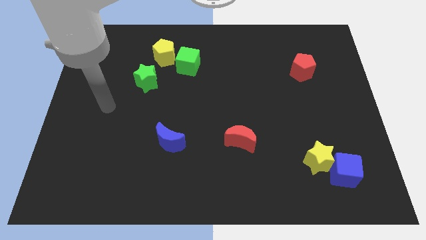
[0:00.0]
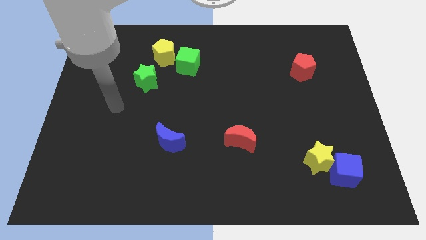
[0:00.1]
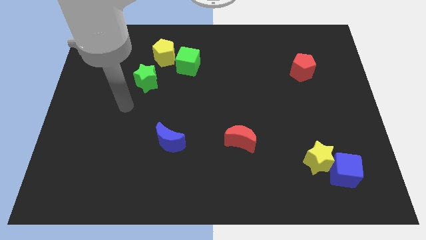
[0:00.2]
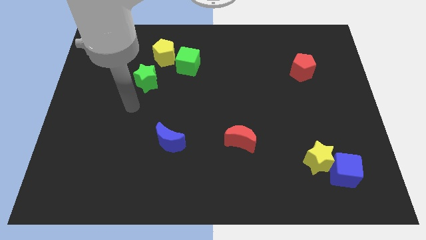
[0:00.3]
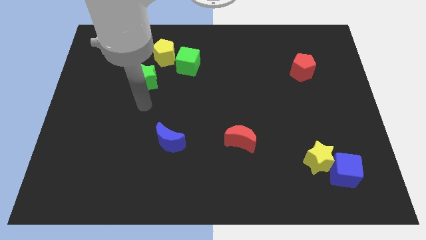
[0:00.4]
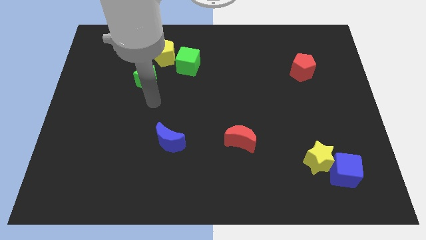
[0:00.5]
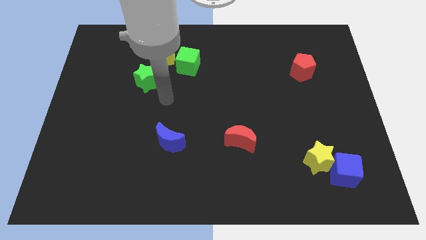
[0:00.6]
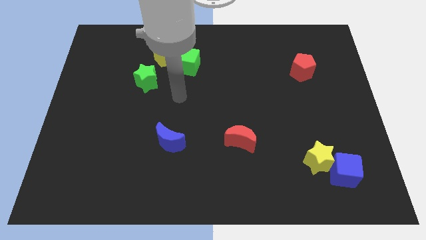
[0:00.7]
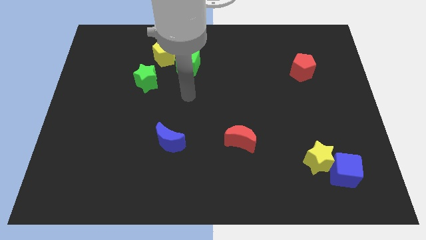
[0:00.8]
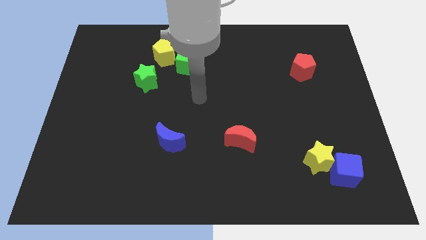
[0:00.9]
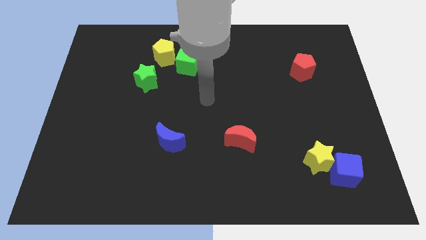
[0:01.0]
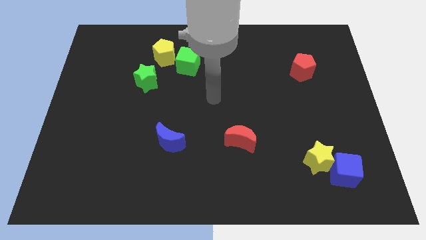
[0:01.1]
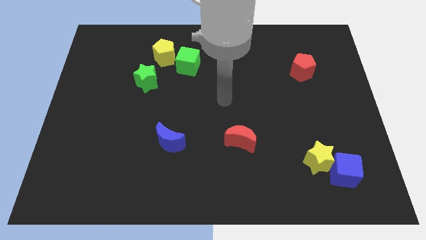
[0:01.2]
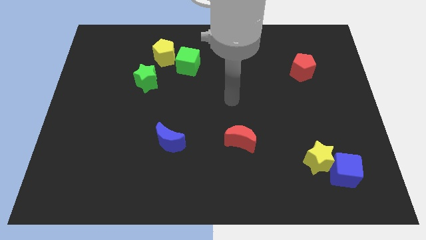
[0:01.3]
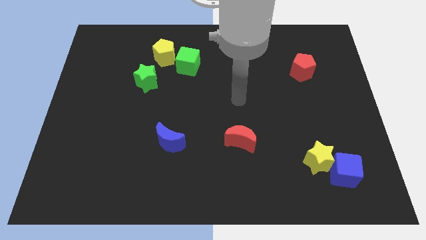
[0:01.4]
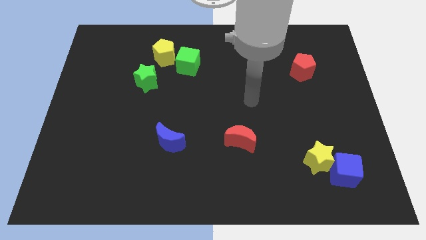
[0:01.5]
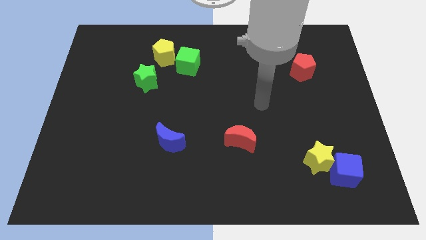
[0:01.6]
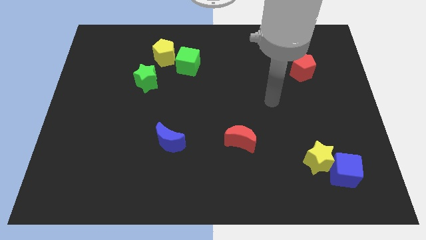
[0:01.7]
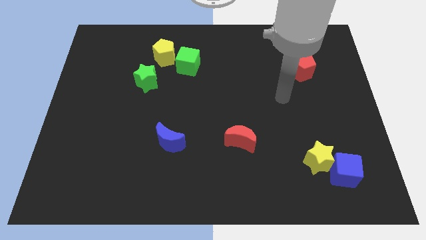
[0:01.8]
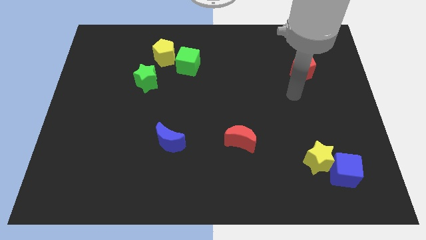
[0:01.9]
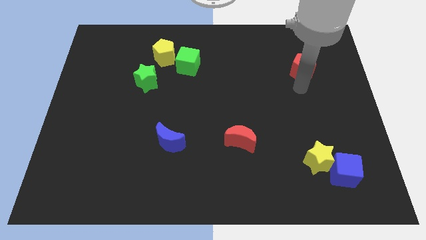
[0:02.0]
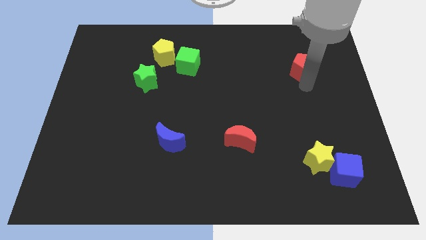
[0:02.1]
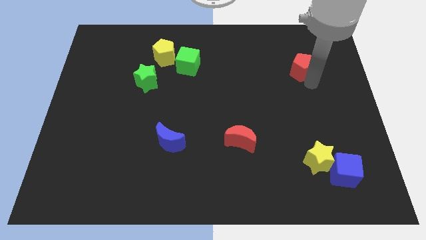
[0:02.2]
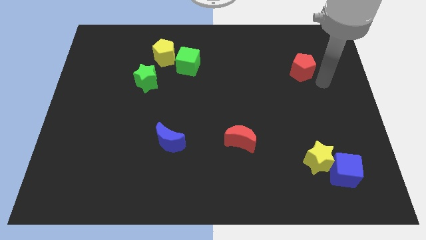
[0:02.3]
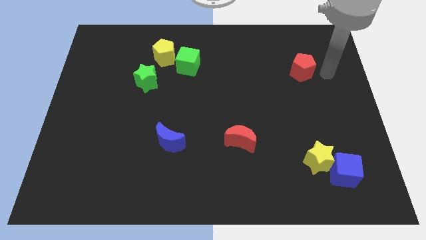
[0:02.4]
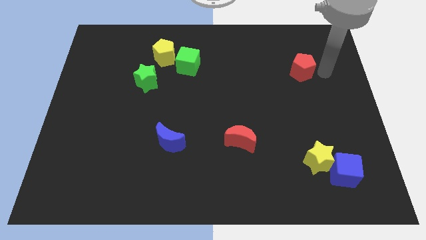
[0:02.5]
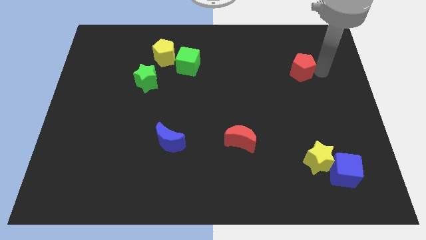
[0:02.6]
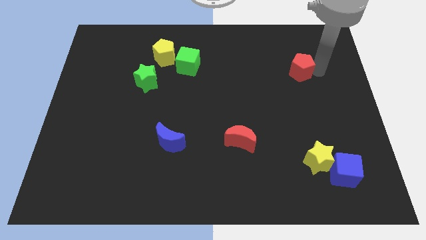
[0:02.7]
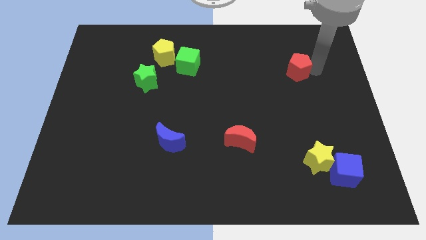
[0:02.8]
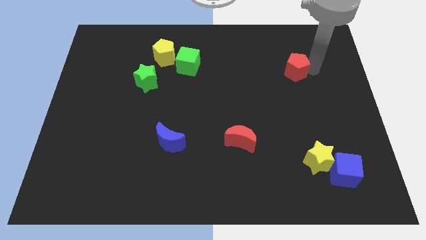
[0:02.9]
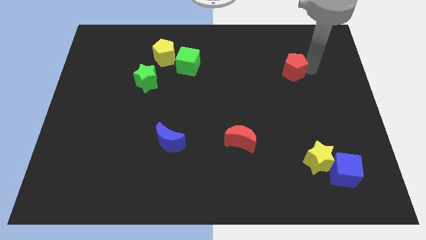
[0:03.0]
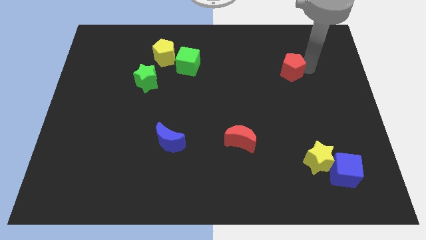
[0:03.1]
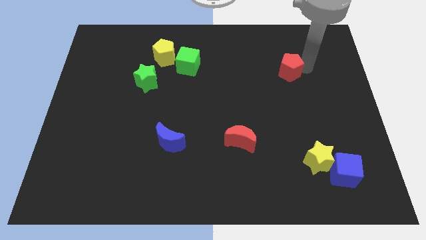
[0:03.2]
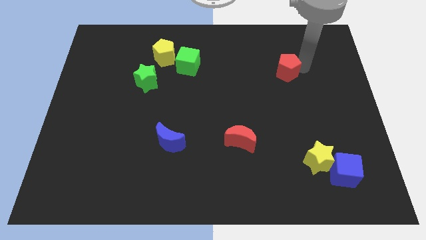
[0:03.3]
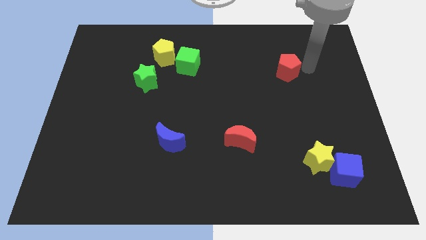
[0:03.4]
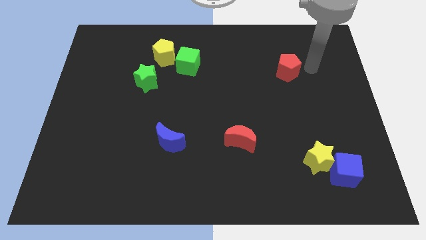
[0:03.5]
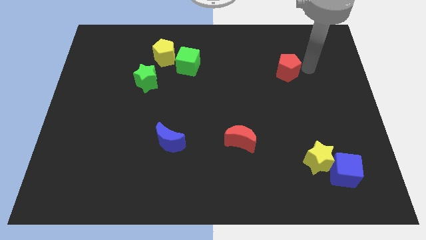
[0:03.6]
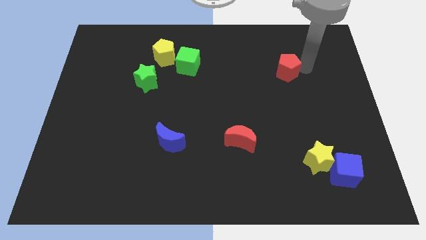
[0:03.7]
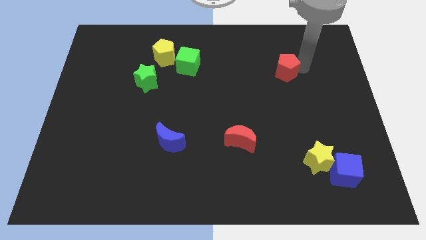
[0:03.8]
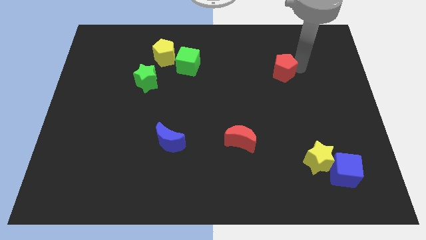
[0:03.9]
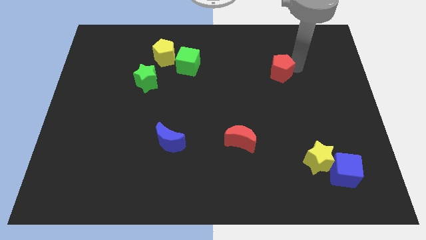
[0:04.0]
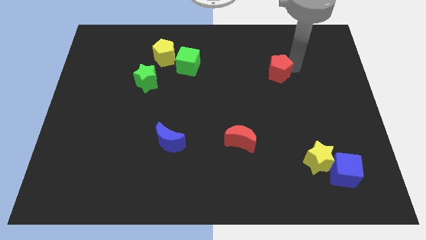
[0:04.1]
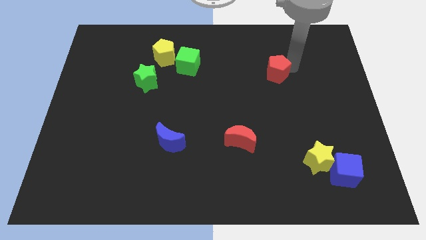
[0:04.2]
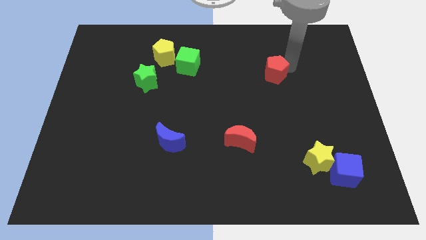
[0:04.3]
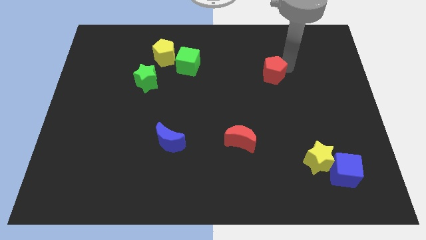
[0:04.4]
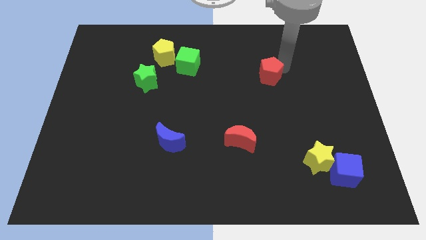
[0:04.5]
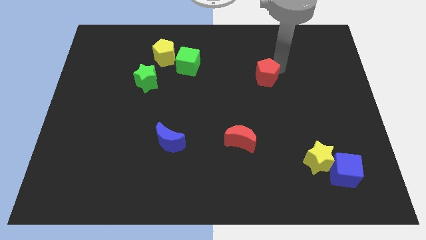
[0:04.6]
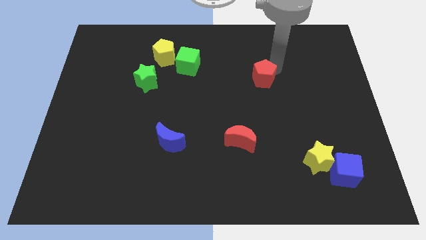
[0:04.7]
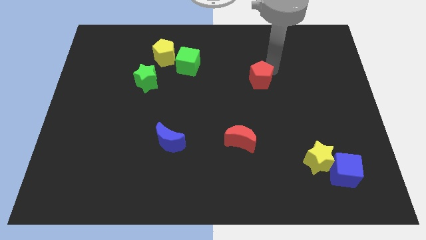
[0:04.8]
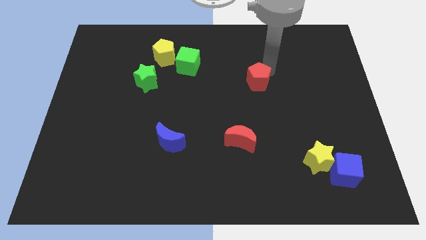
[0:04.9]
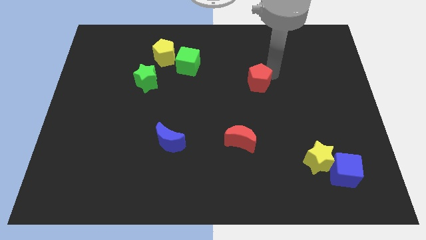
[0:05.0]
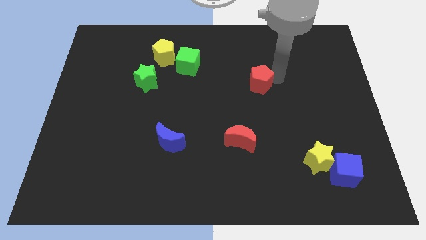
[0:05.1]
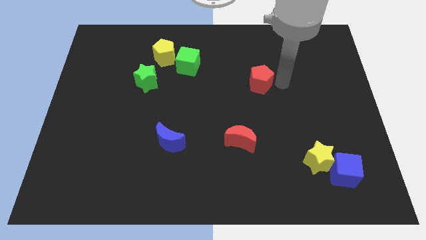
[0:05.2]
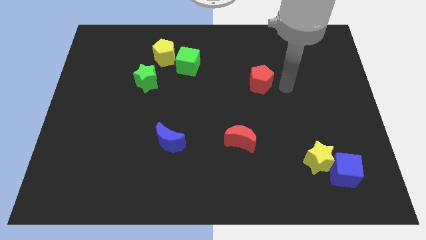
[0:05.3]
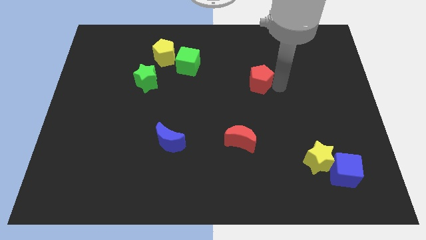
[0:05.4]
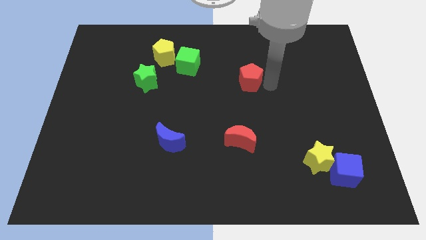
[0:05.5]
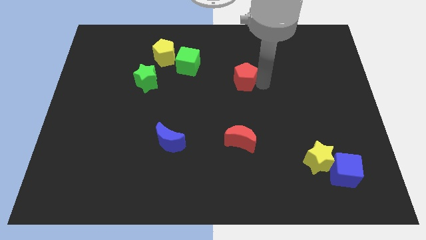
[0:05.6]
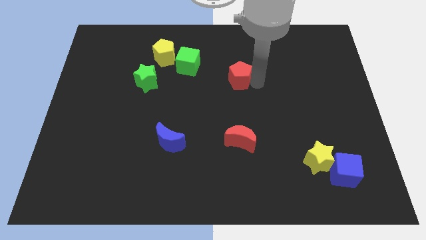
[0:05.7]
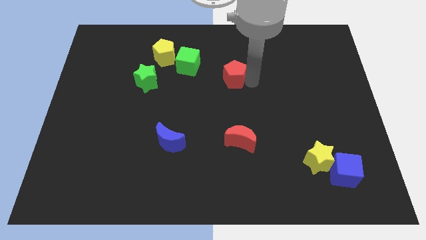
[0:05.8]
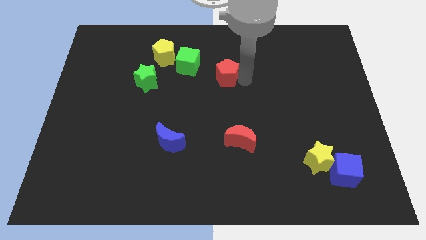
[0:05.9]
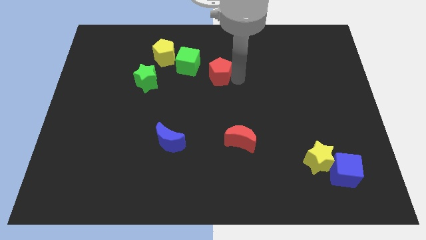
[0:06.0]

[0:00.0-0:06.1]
move the red pentagon left

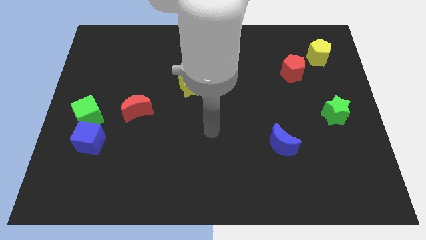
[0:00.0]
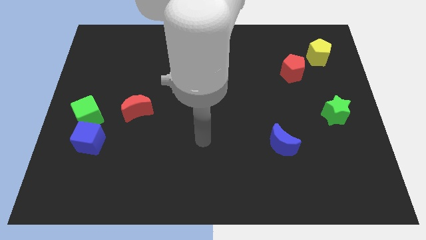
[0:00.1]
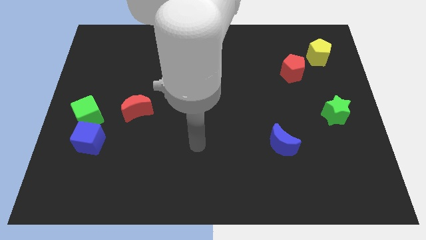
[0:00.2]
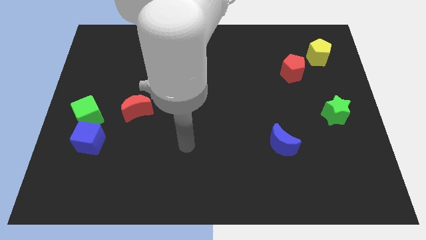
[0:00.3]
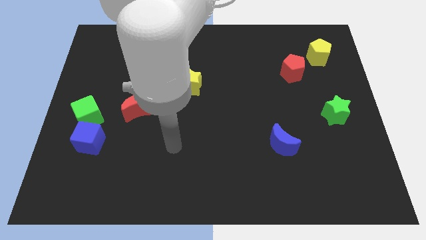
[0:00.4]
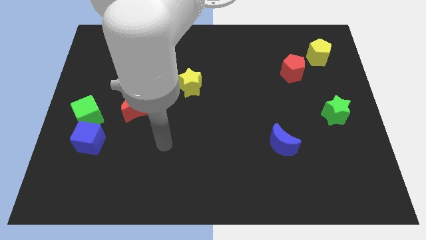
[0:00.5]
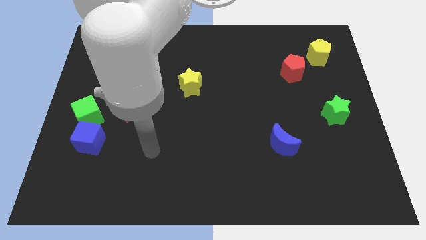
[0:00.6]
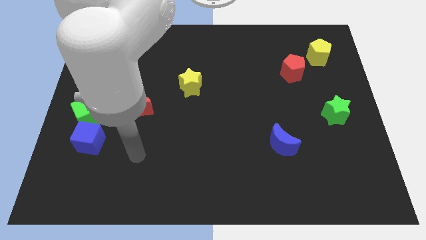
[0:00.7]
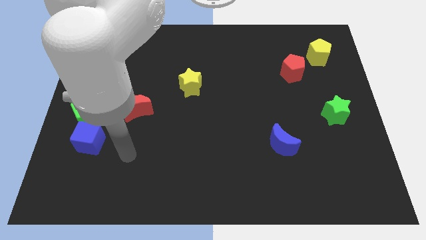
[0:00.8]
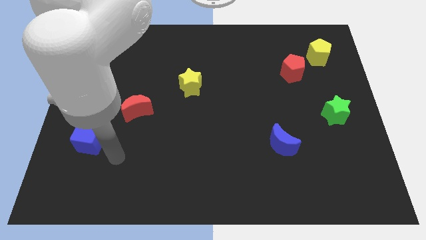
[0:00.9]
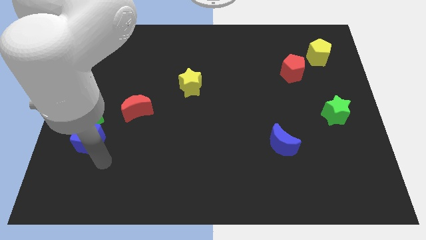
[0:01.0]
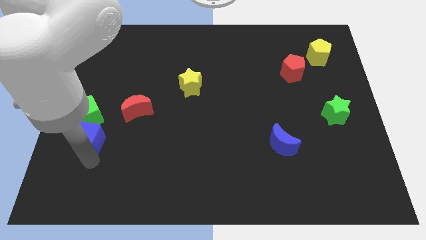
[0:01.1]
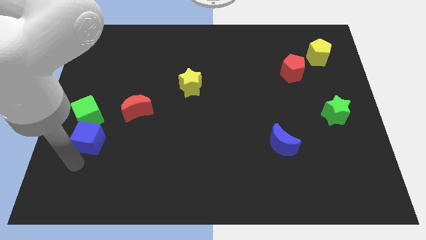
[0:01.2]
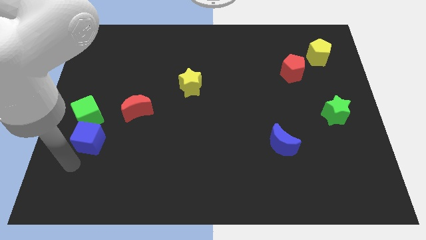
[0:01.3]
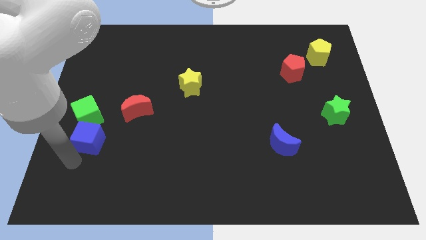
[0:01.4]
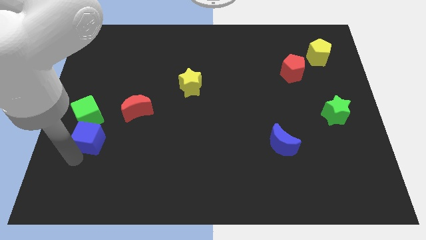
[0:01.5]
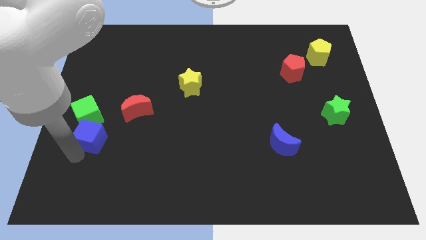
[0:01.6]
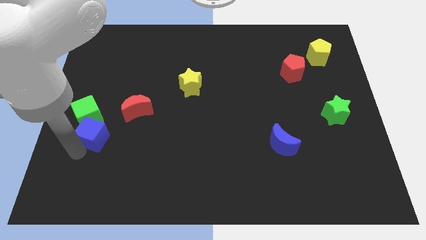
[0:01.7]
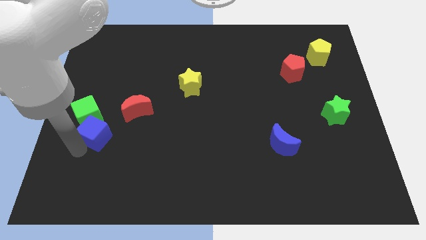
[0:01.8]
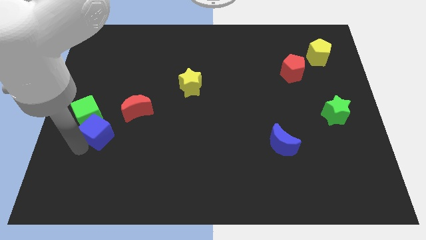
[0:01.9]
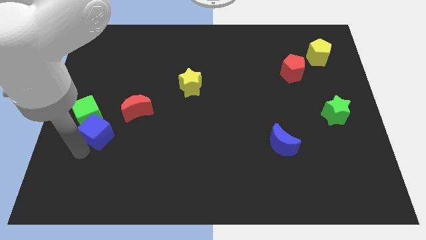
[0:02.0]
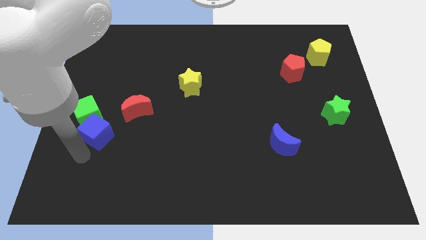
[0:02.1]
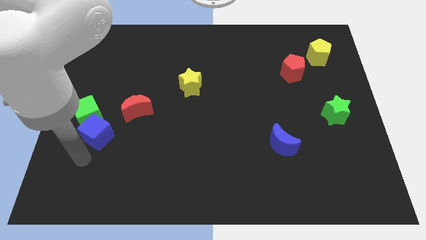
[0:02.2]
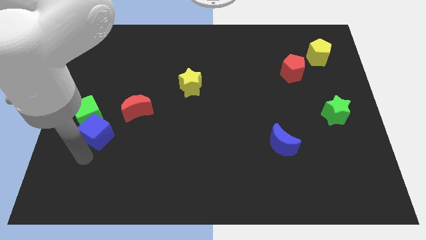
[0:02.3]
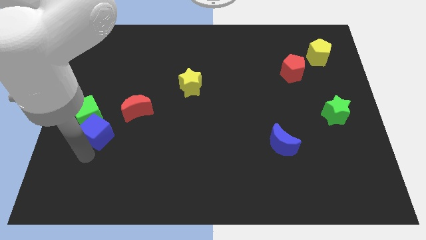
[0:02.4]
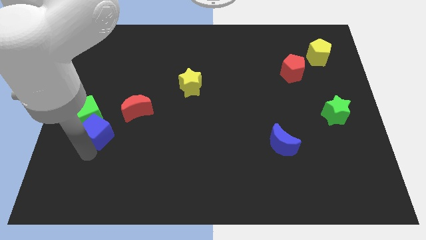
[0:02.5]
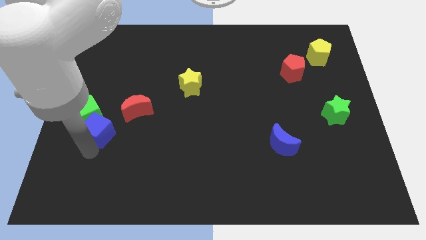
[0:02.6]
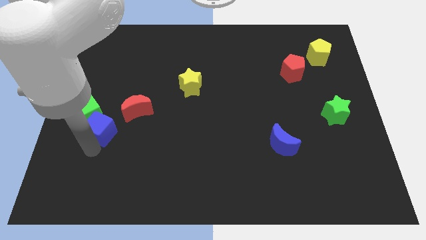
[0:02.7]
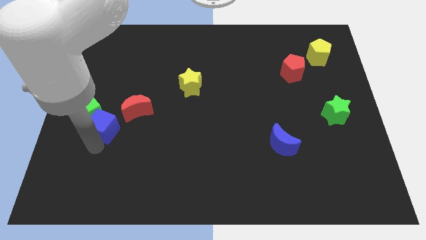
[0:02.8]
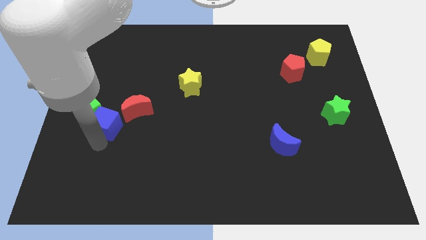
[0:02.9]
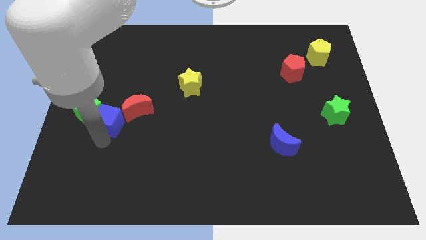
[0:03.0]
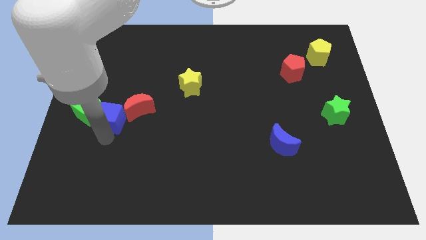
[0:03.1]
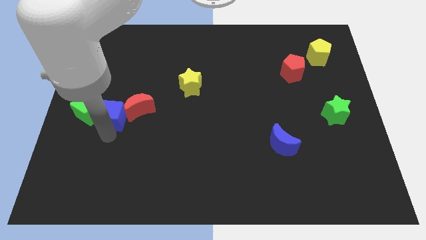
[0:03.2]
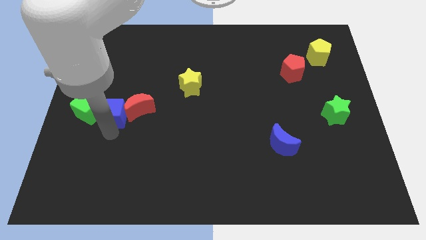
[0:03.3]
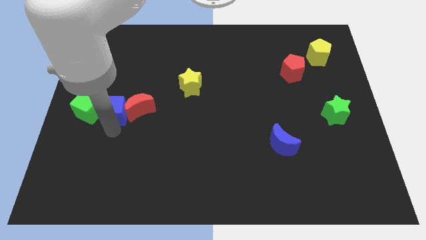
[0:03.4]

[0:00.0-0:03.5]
slide the blue cube upwards a bit
